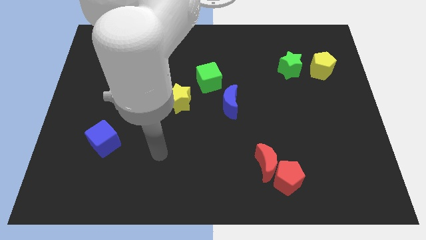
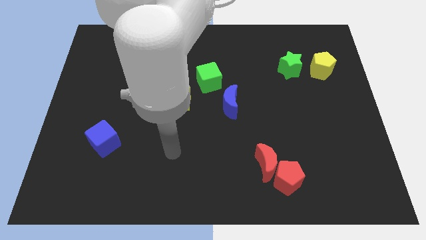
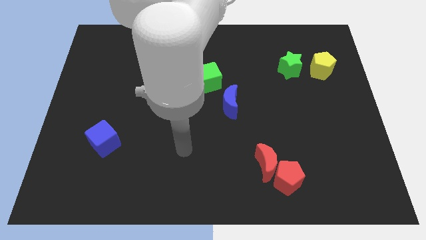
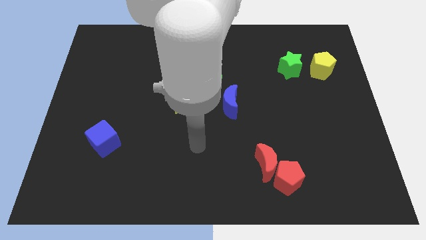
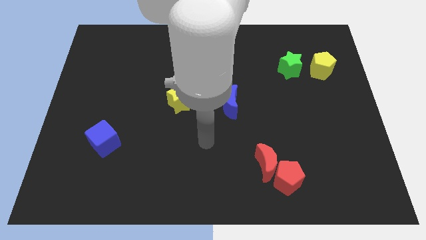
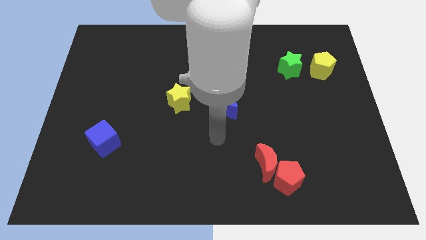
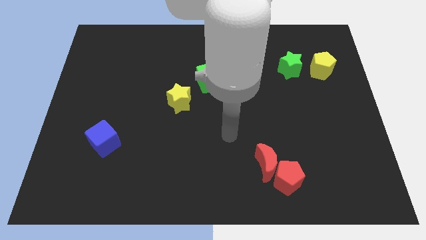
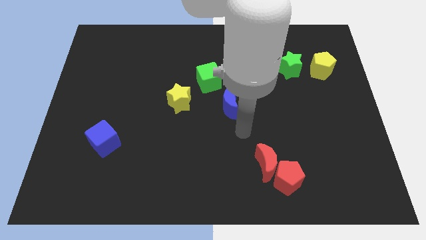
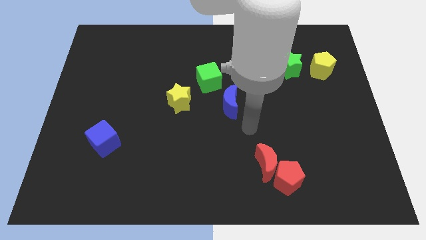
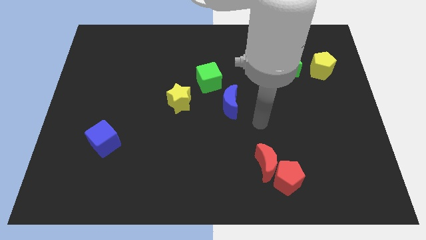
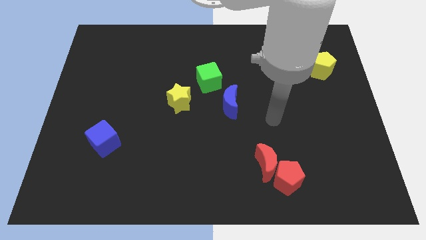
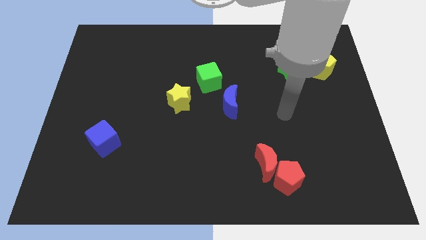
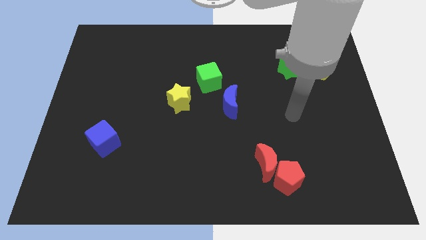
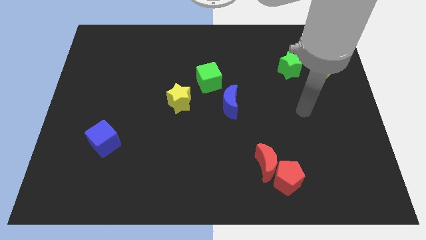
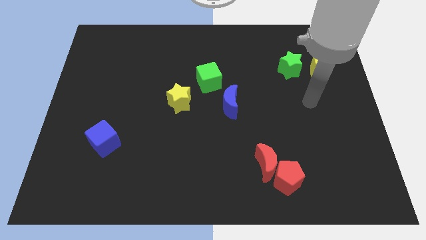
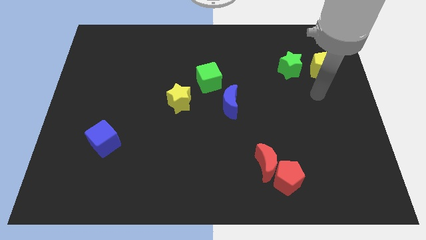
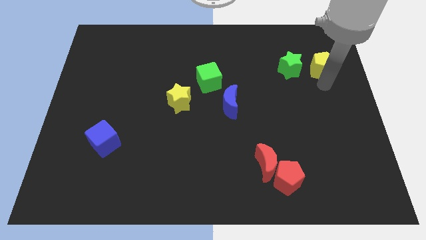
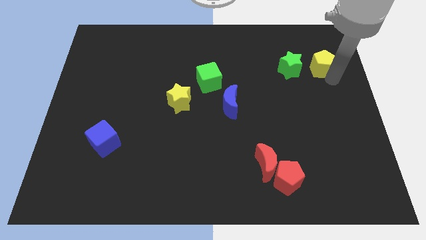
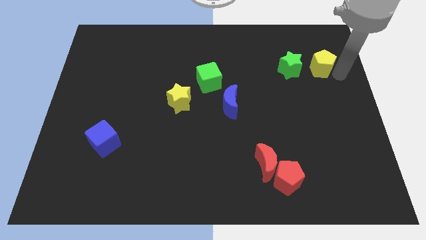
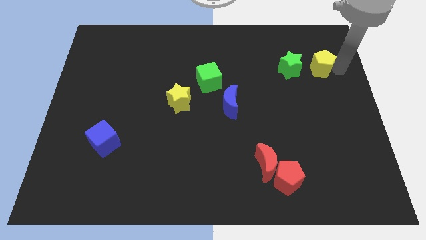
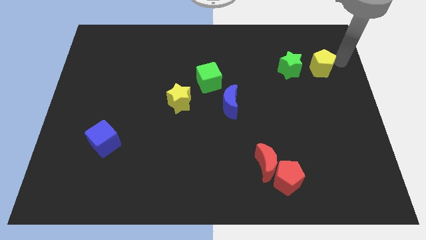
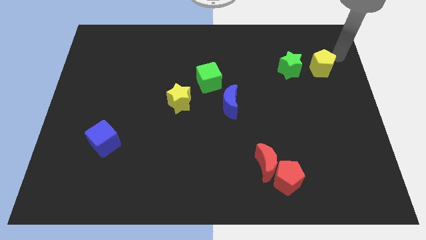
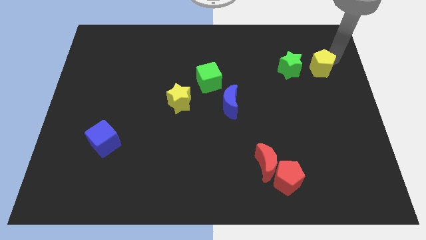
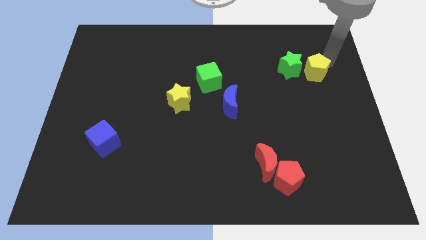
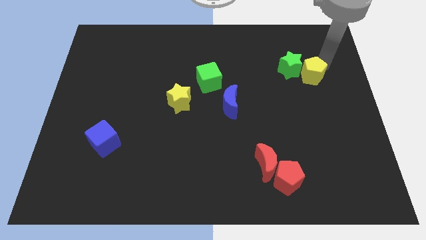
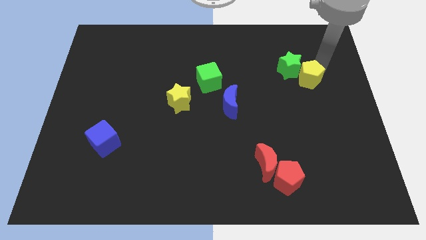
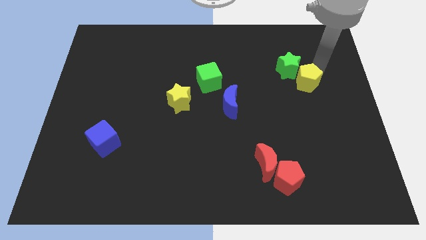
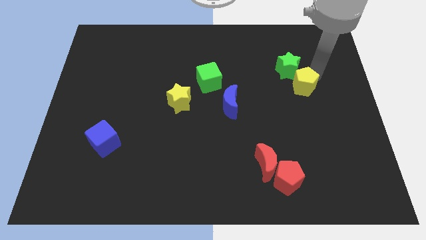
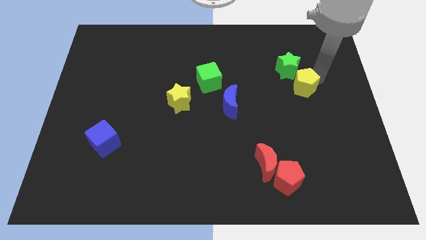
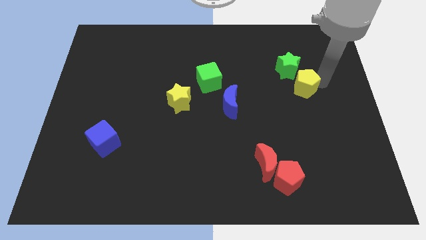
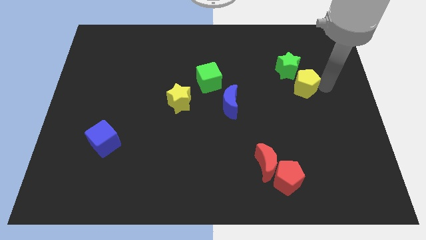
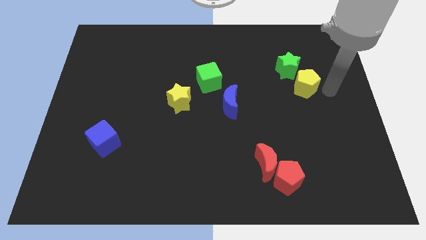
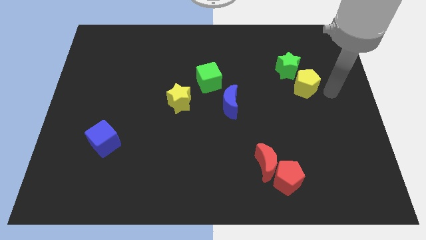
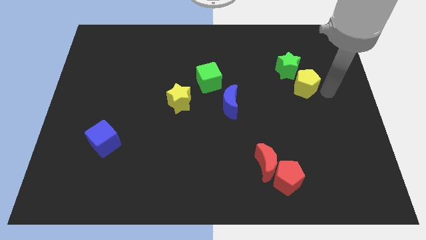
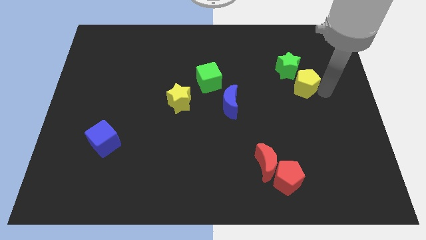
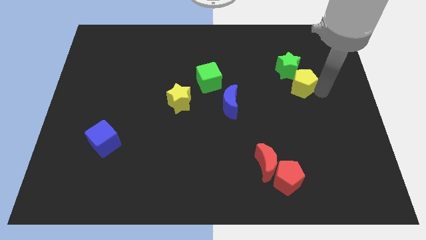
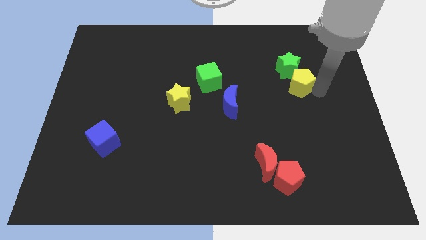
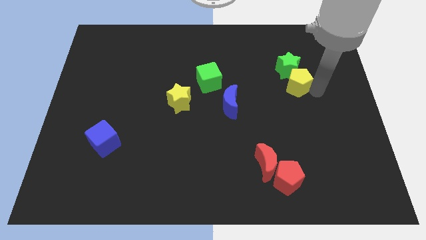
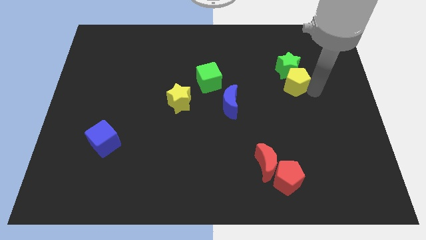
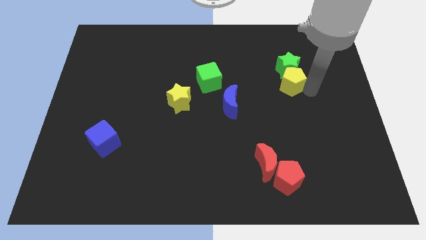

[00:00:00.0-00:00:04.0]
slide the yellow pentagon a little bit to the left

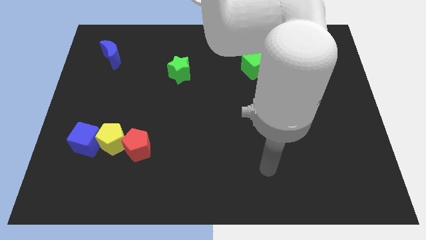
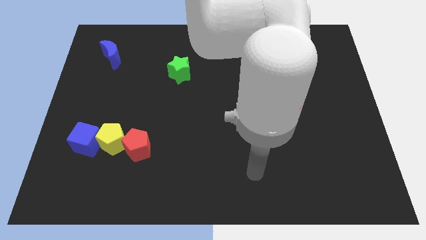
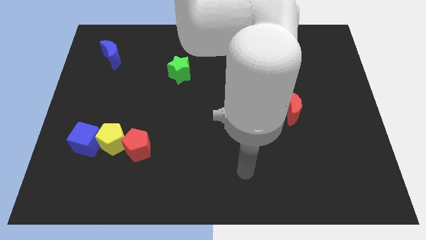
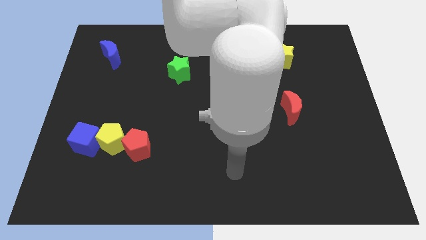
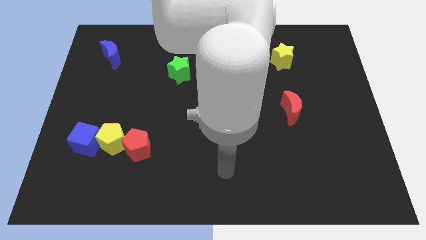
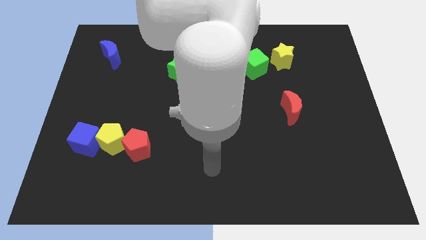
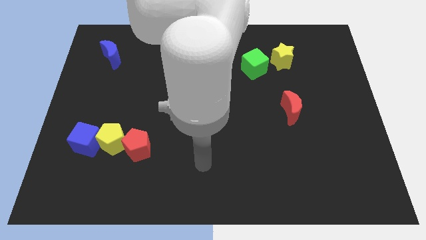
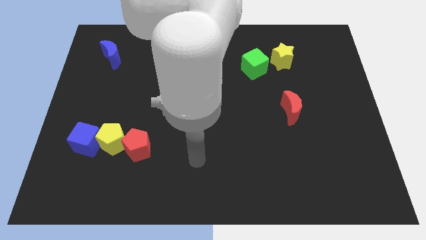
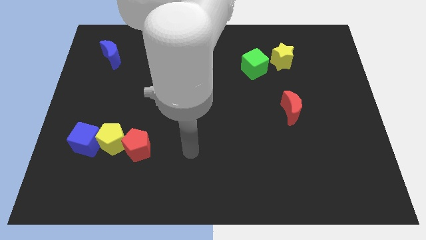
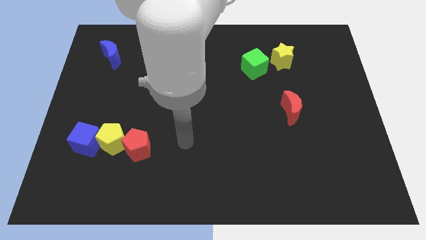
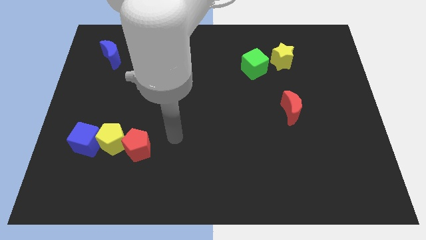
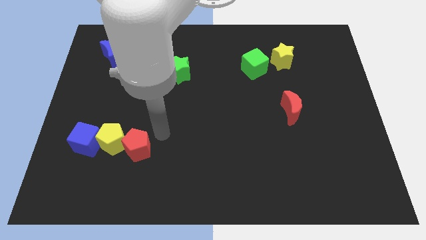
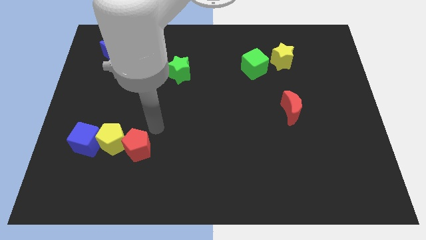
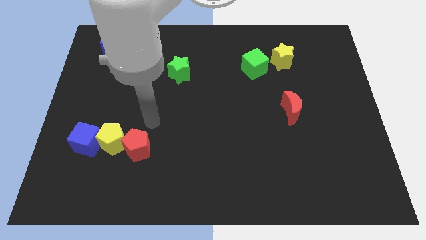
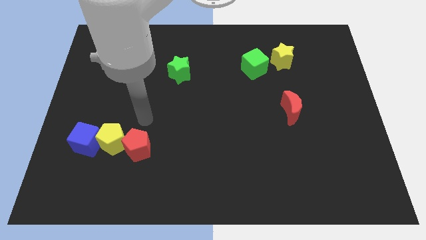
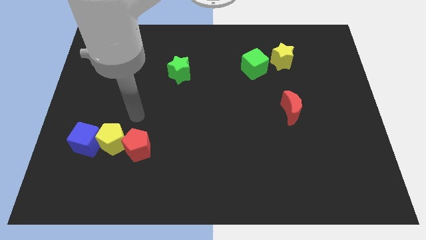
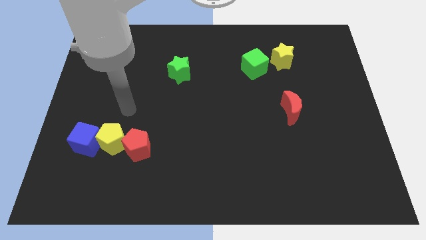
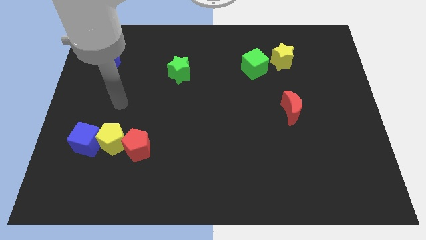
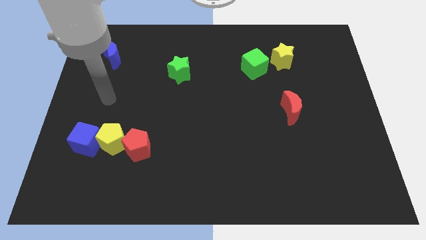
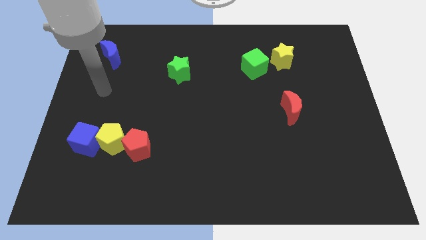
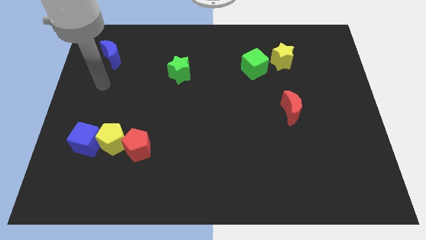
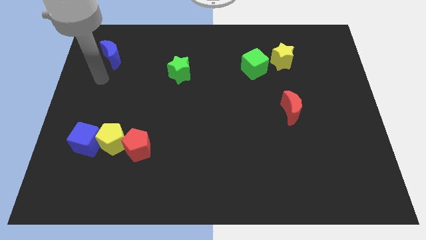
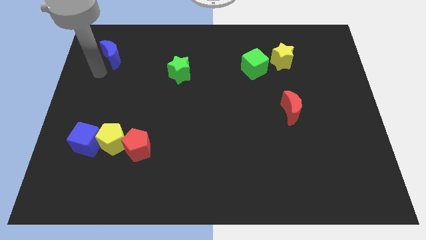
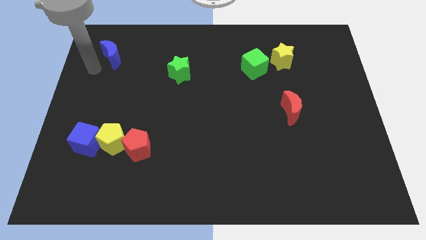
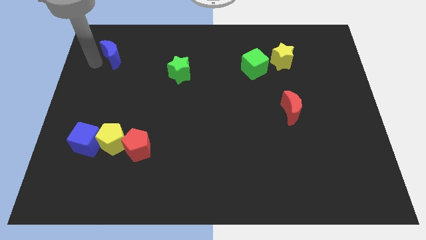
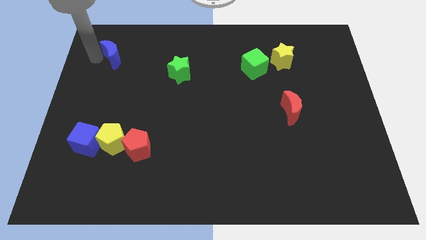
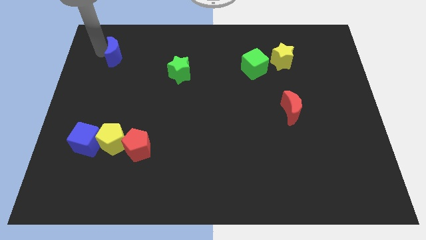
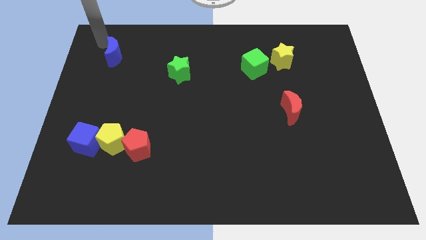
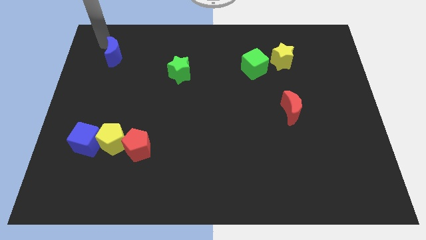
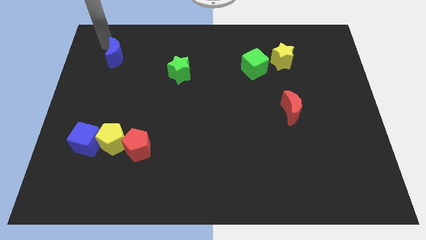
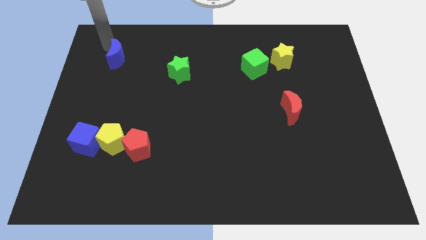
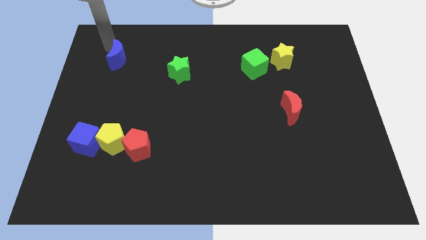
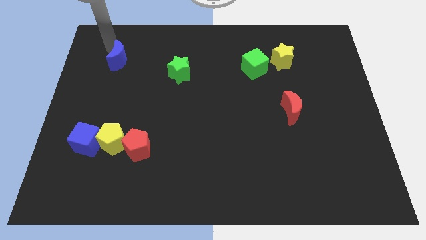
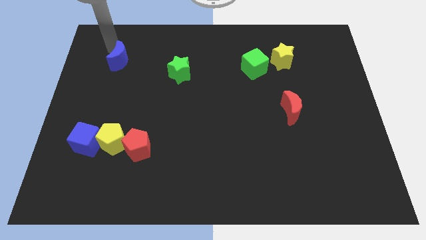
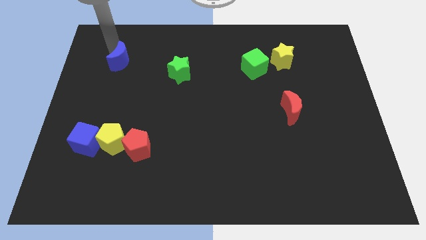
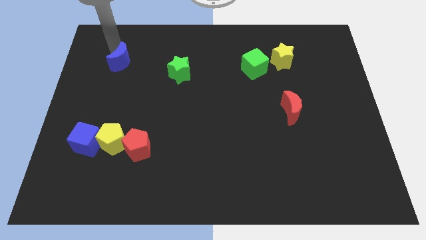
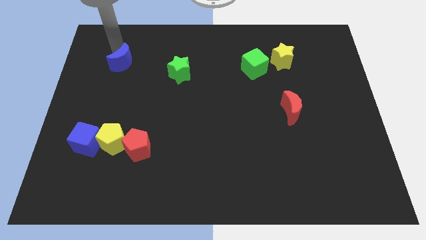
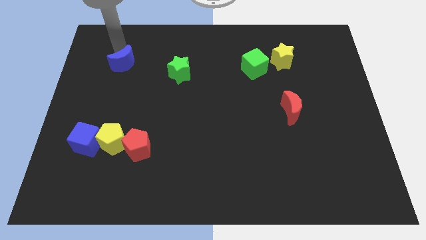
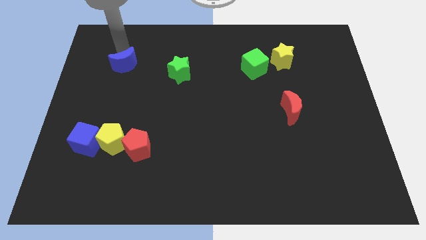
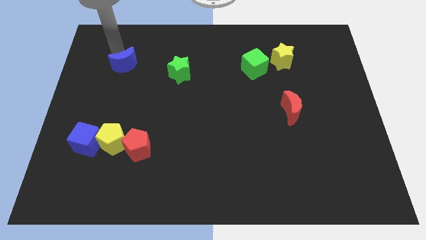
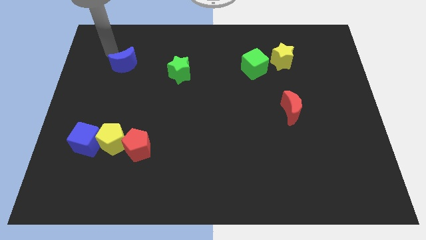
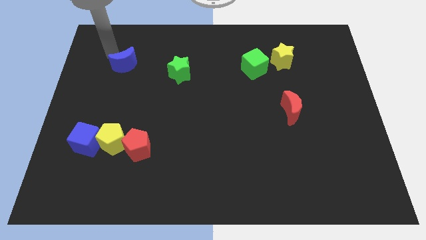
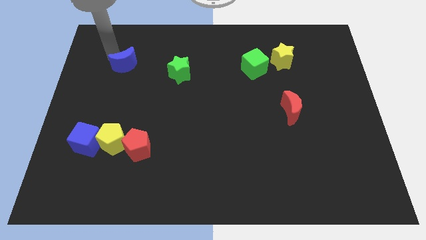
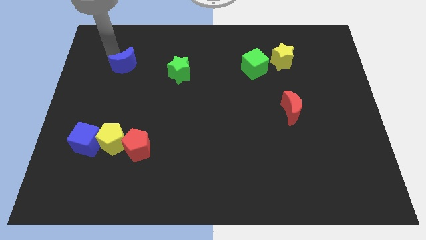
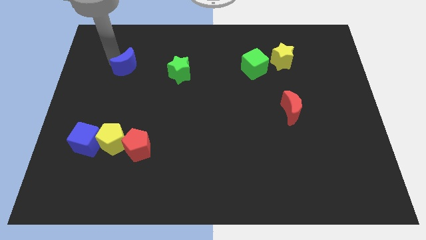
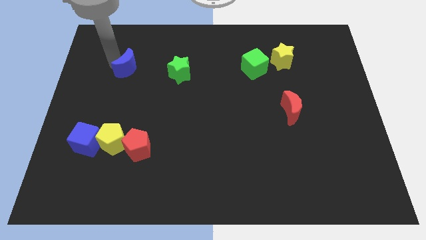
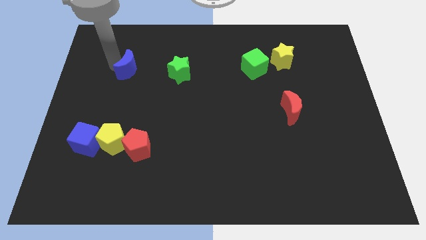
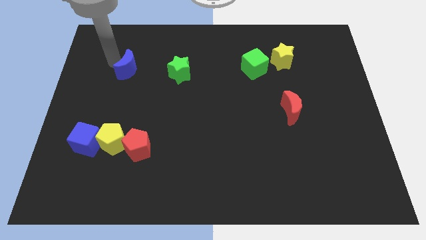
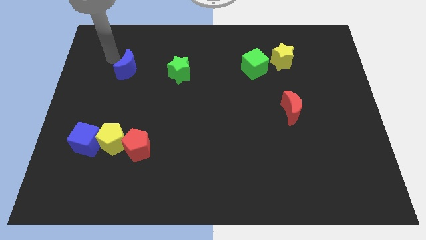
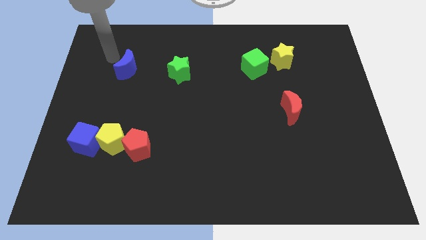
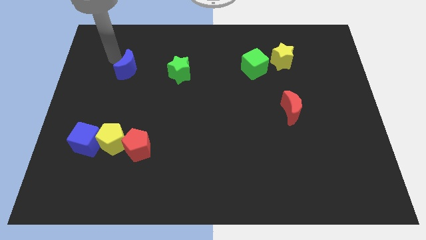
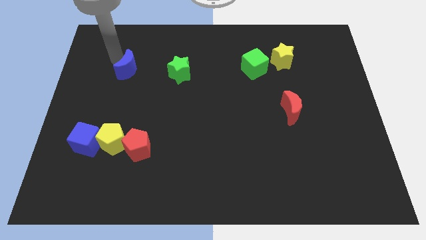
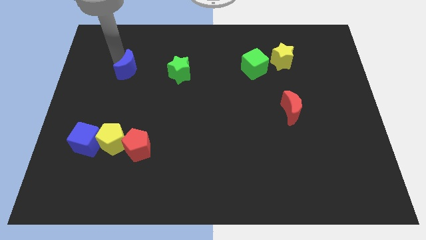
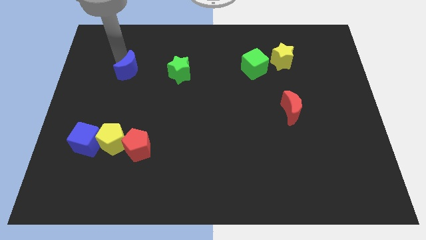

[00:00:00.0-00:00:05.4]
push the blue moon a little down and right
